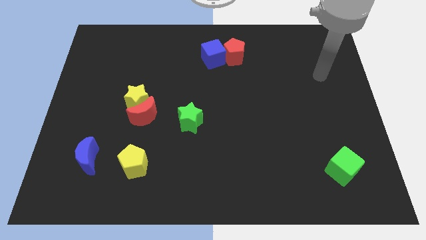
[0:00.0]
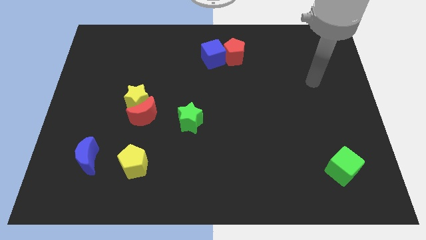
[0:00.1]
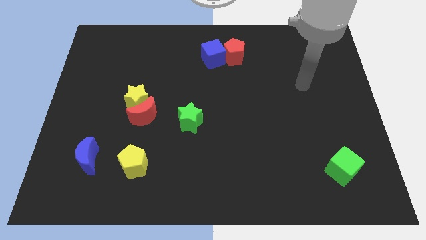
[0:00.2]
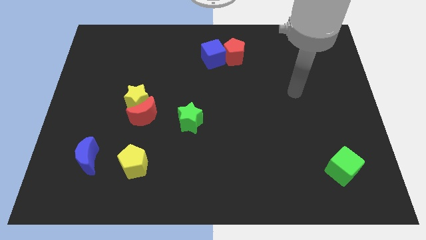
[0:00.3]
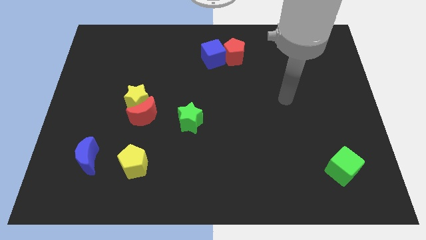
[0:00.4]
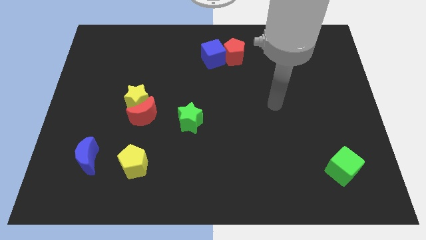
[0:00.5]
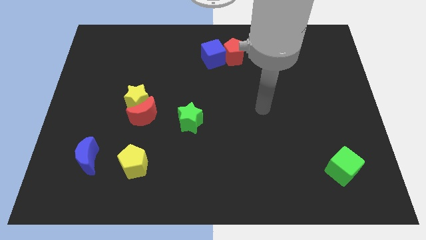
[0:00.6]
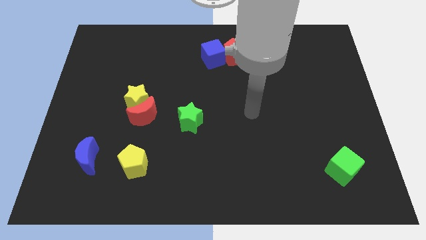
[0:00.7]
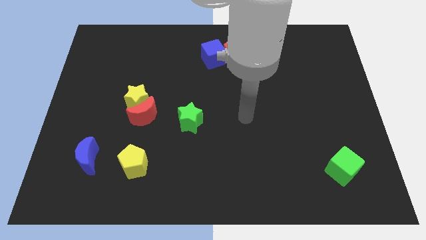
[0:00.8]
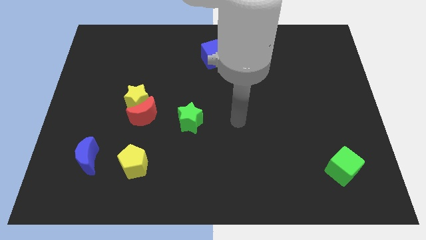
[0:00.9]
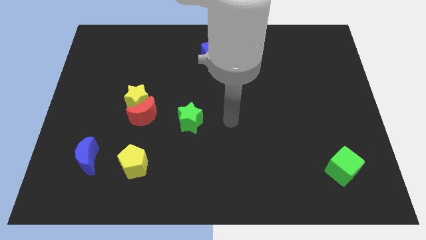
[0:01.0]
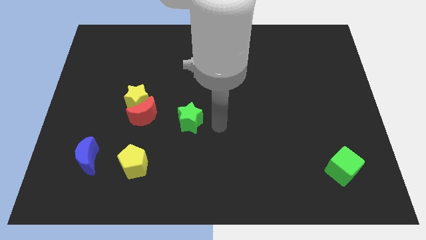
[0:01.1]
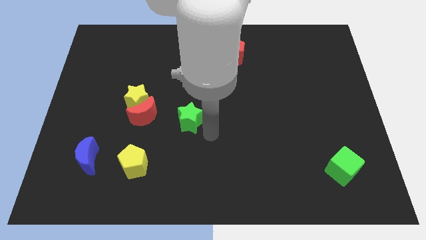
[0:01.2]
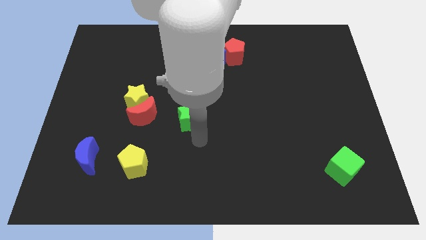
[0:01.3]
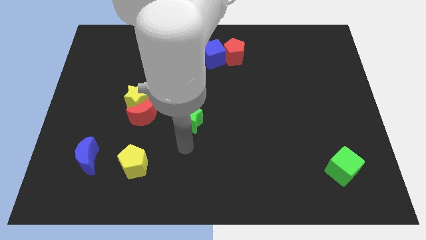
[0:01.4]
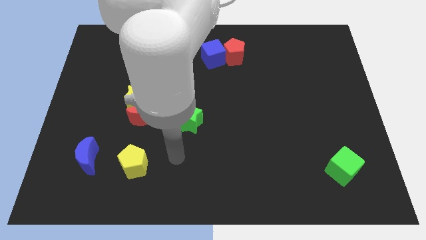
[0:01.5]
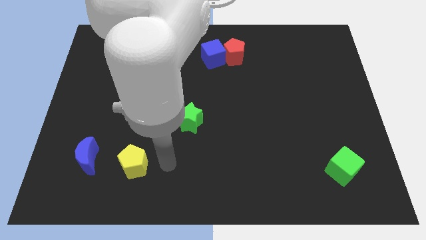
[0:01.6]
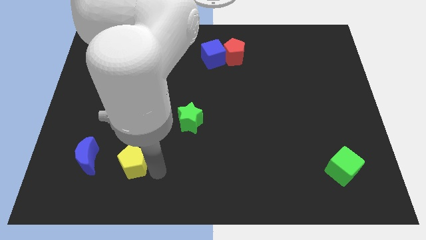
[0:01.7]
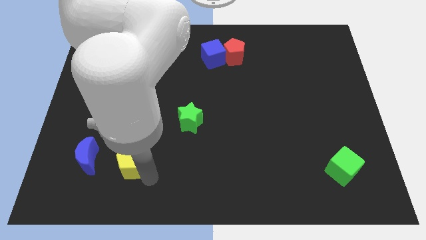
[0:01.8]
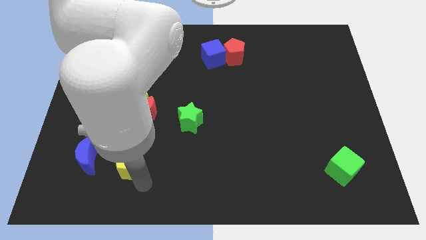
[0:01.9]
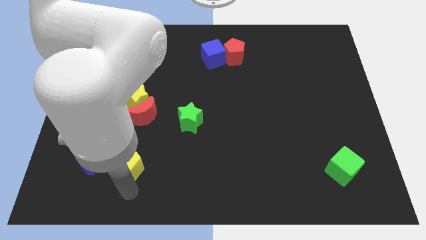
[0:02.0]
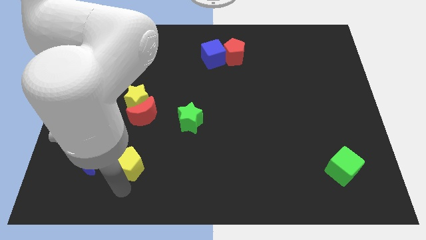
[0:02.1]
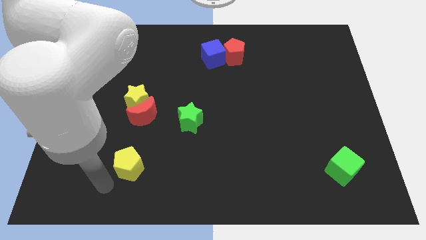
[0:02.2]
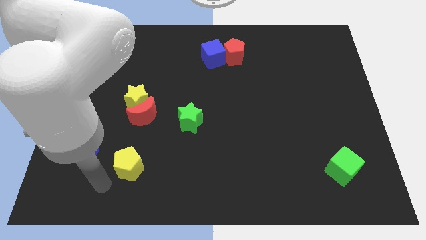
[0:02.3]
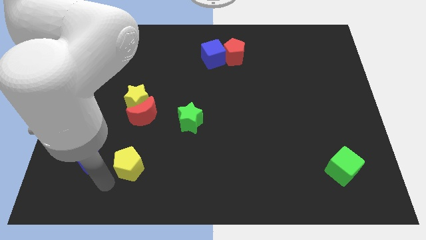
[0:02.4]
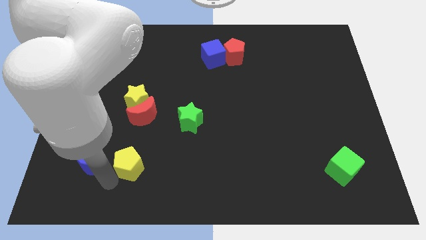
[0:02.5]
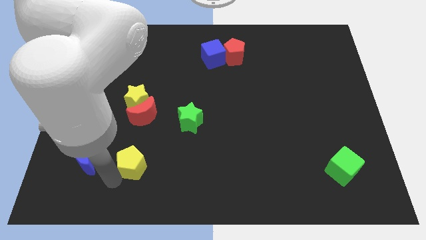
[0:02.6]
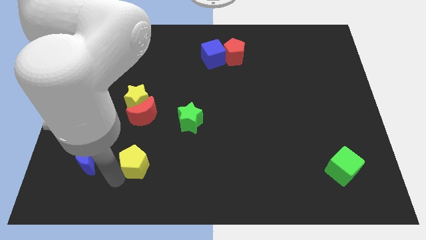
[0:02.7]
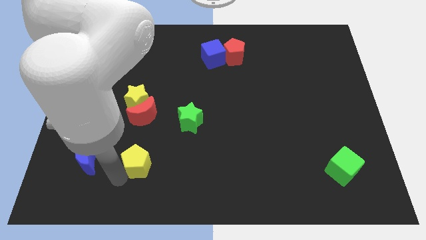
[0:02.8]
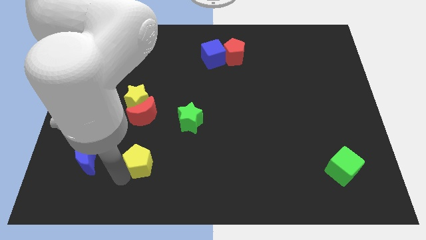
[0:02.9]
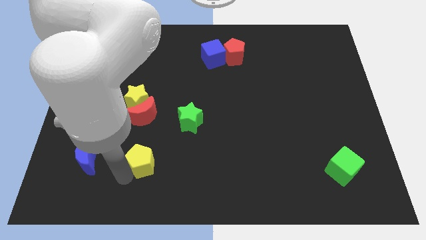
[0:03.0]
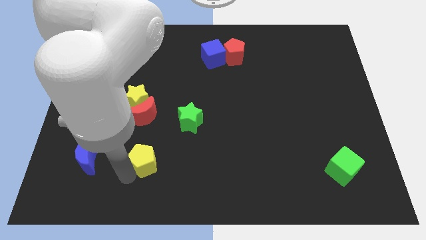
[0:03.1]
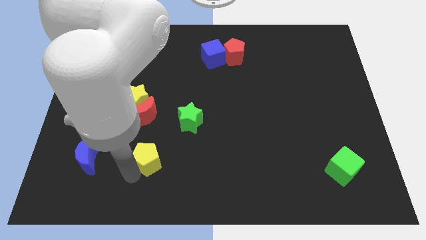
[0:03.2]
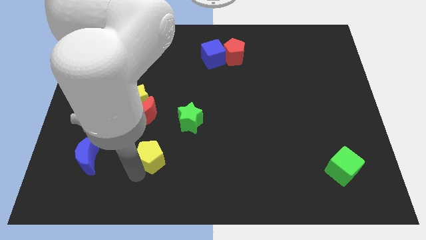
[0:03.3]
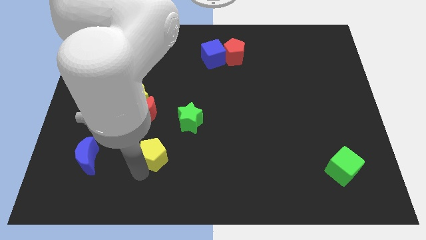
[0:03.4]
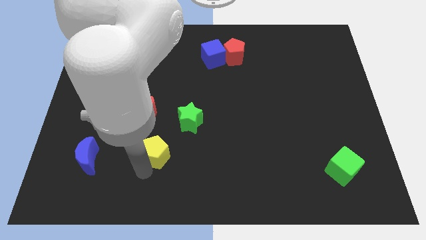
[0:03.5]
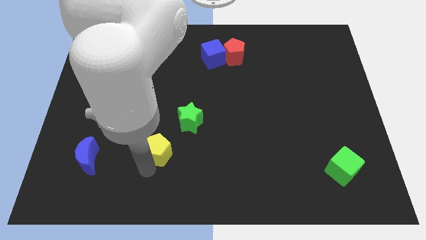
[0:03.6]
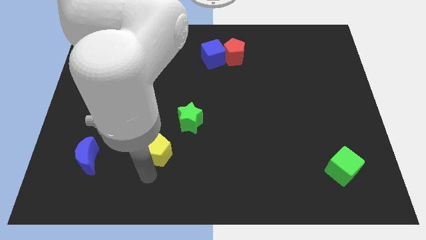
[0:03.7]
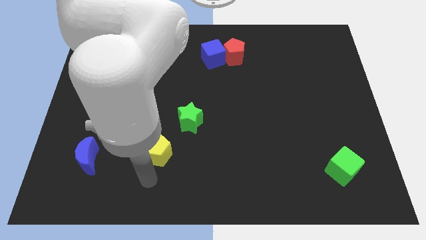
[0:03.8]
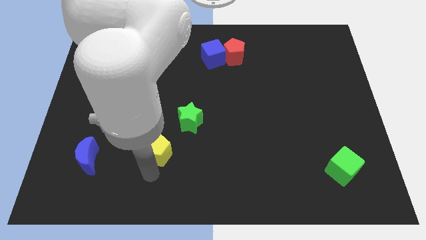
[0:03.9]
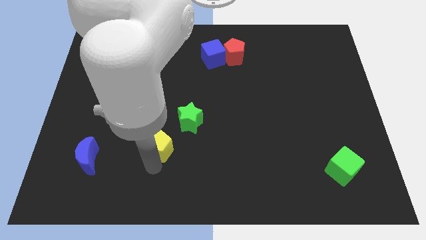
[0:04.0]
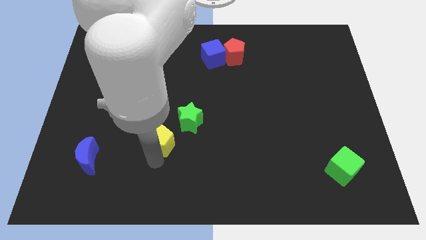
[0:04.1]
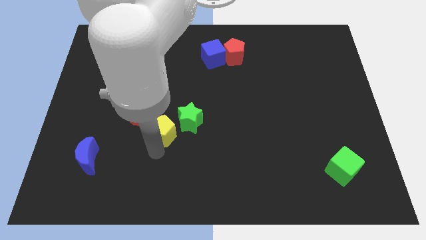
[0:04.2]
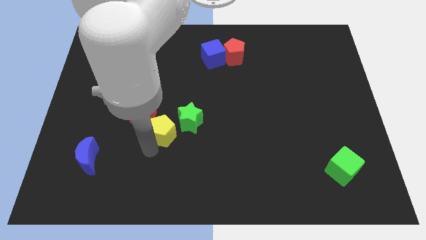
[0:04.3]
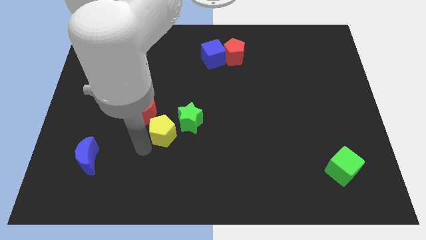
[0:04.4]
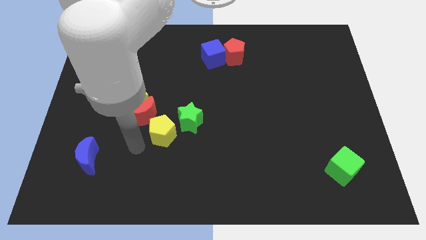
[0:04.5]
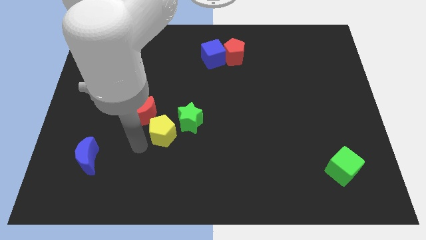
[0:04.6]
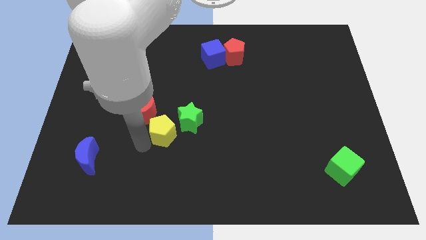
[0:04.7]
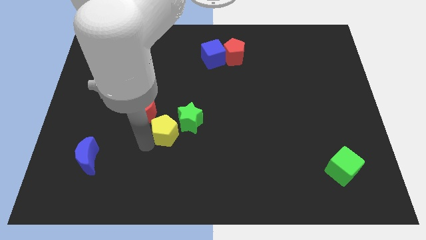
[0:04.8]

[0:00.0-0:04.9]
move the yellow pentagon to the green star

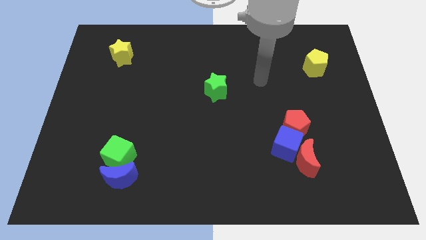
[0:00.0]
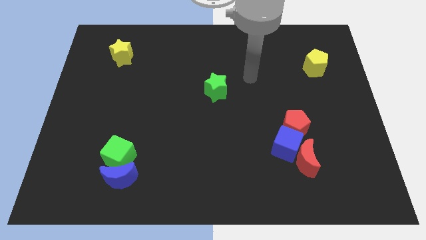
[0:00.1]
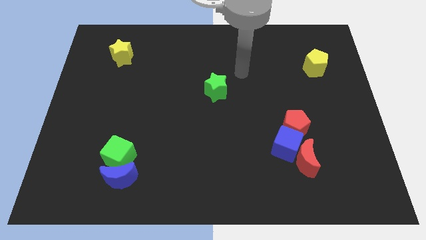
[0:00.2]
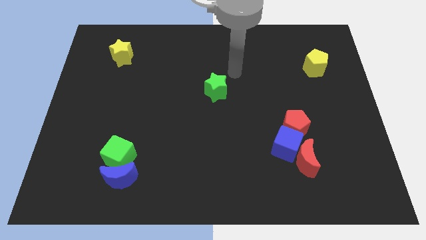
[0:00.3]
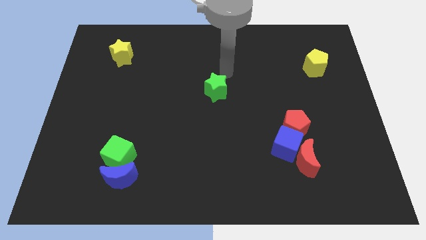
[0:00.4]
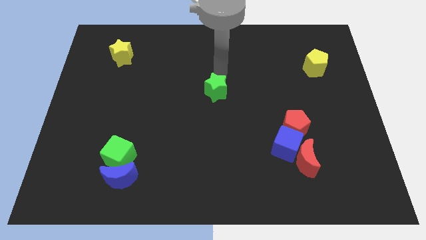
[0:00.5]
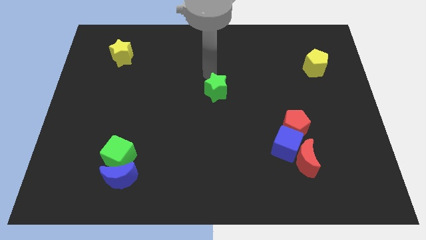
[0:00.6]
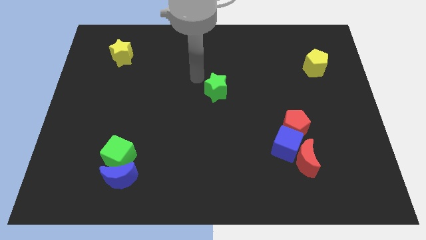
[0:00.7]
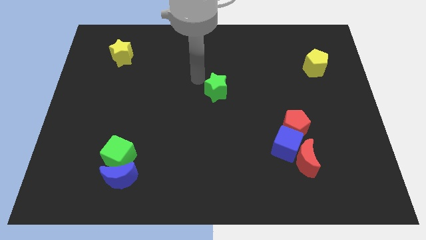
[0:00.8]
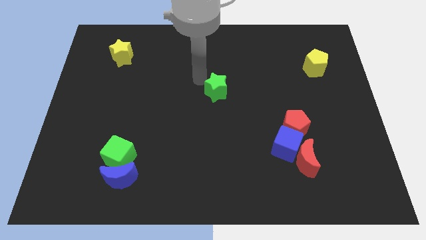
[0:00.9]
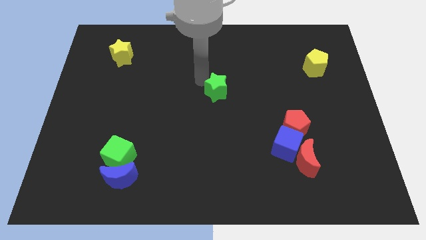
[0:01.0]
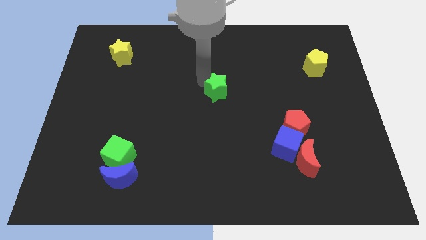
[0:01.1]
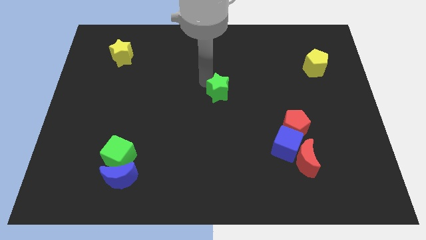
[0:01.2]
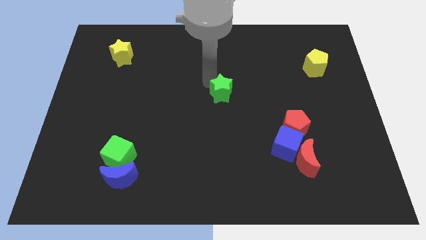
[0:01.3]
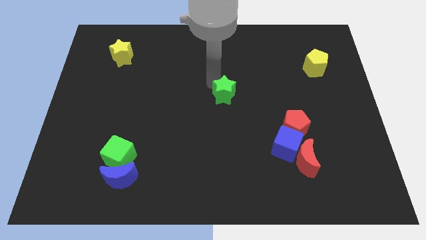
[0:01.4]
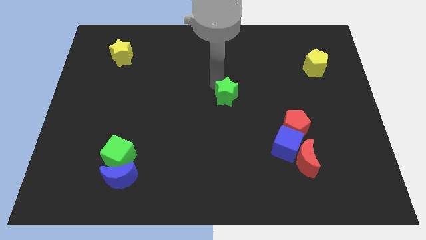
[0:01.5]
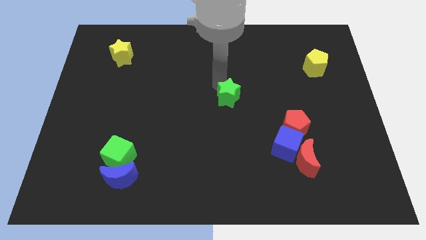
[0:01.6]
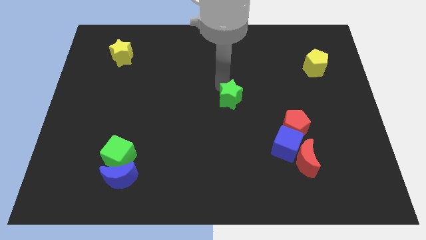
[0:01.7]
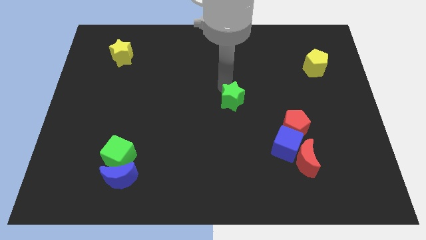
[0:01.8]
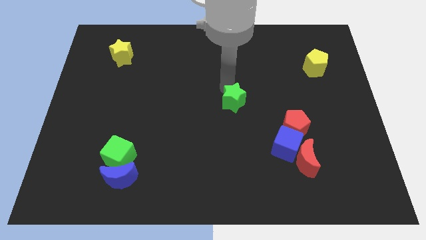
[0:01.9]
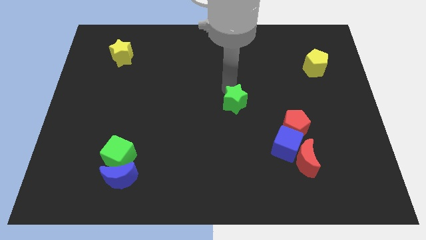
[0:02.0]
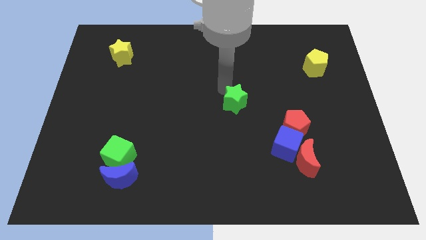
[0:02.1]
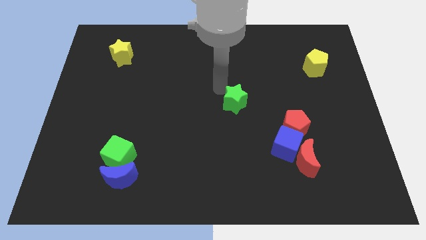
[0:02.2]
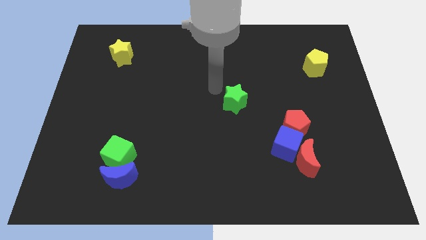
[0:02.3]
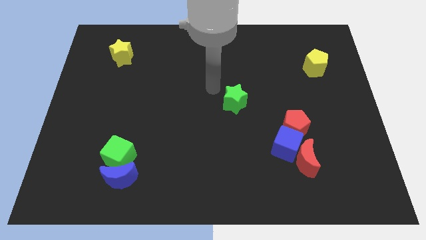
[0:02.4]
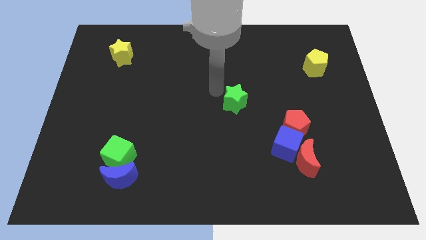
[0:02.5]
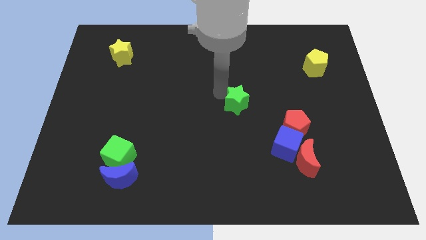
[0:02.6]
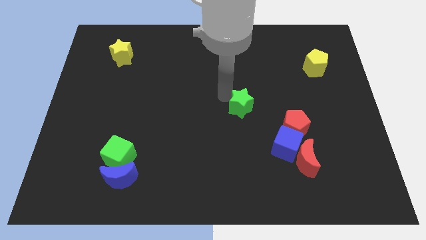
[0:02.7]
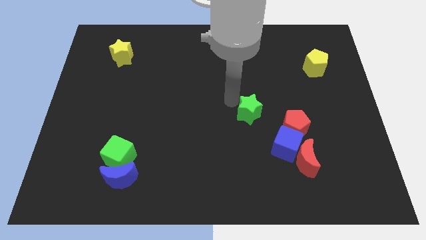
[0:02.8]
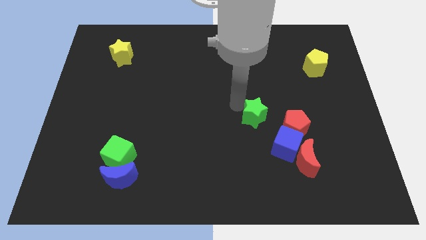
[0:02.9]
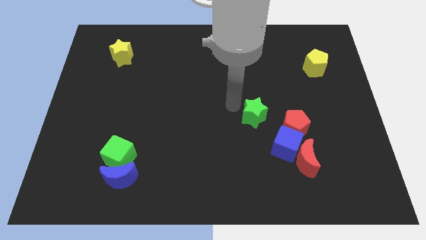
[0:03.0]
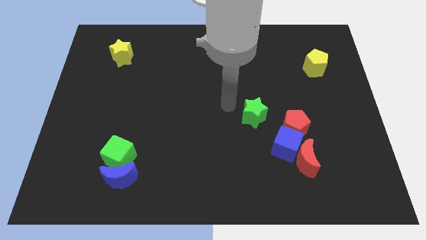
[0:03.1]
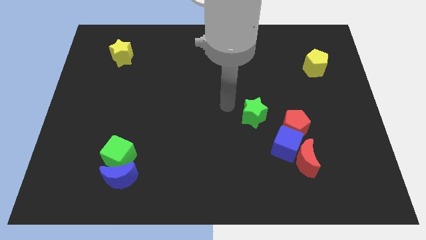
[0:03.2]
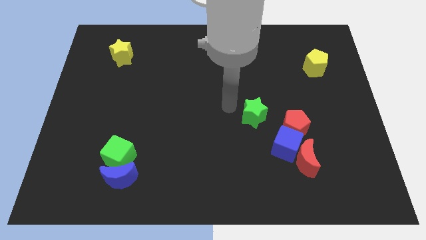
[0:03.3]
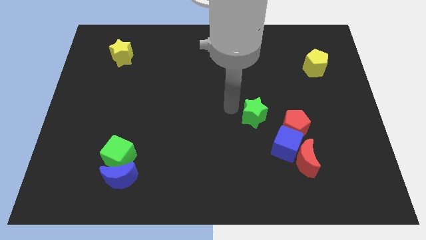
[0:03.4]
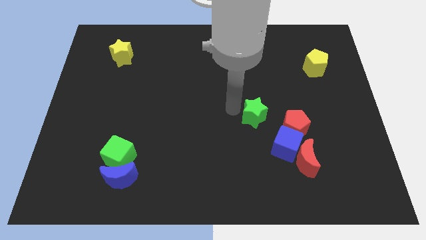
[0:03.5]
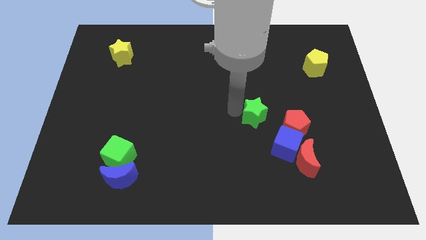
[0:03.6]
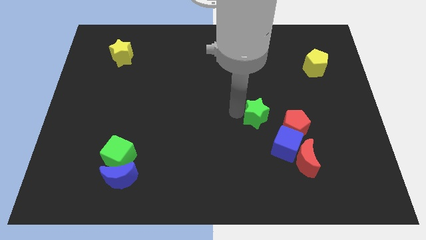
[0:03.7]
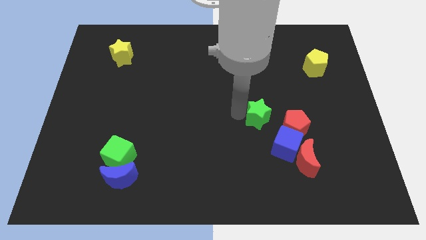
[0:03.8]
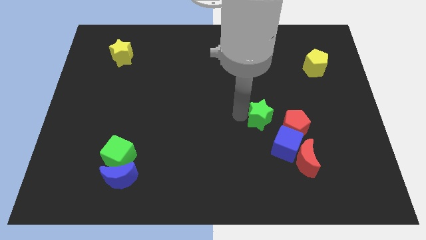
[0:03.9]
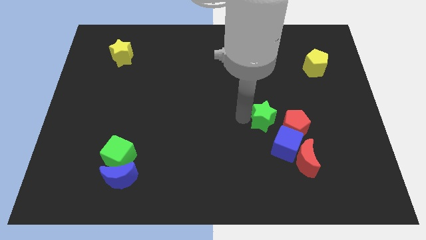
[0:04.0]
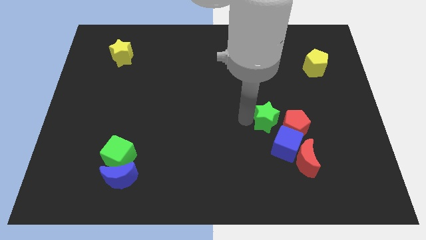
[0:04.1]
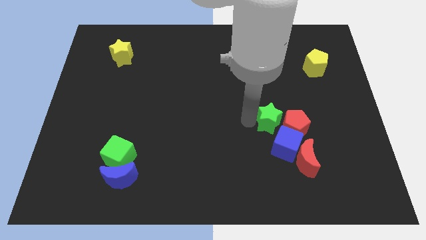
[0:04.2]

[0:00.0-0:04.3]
slide the green star close to the red pentagon
